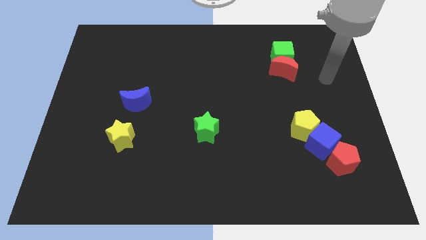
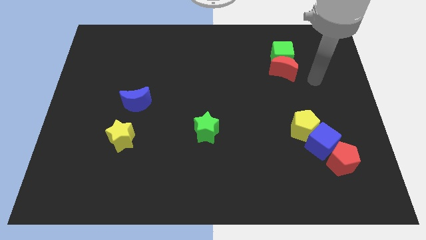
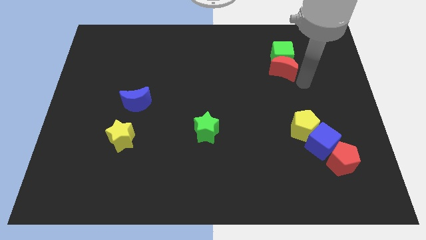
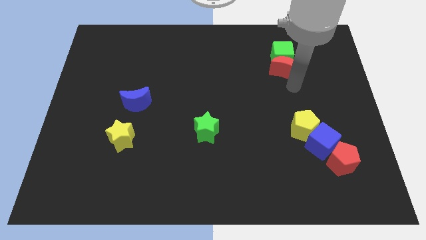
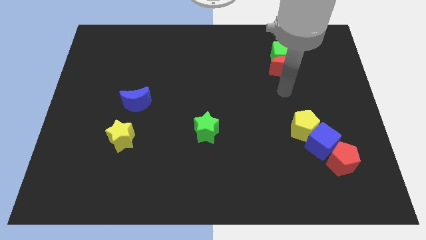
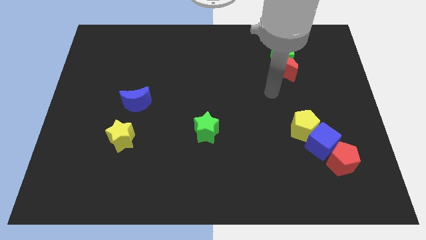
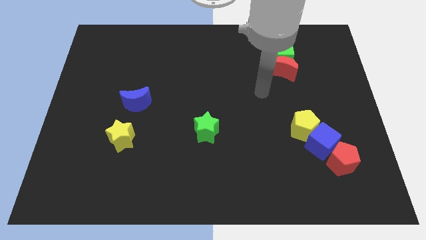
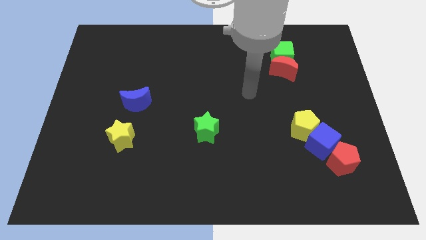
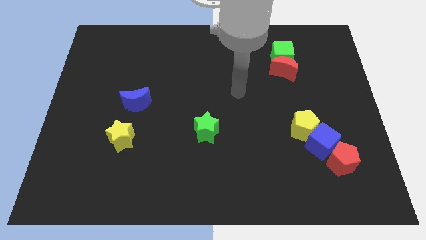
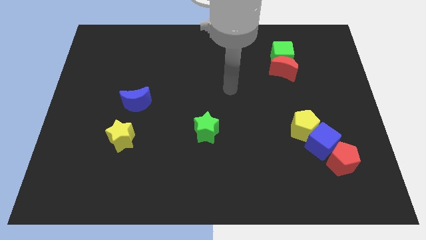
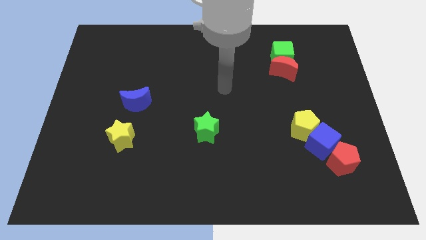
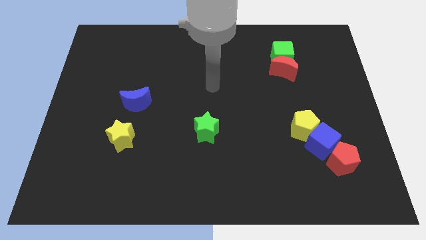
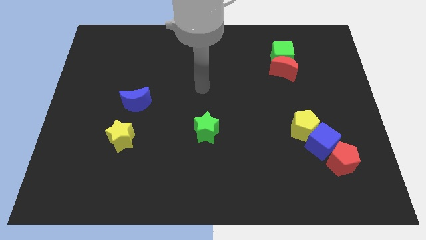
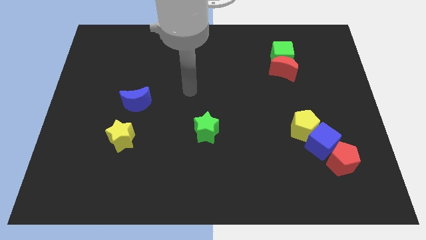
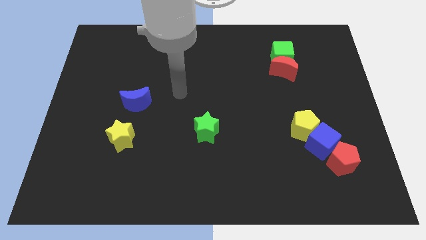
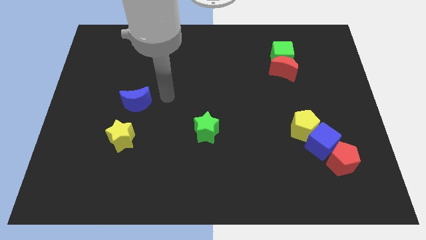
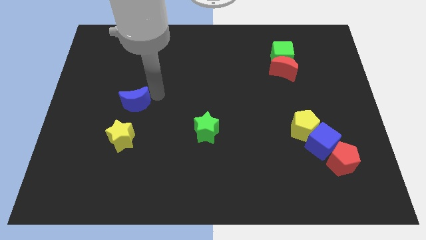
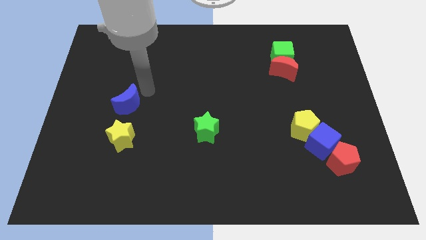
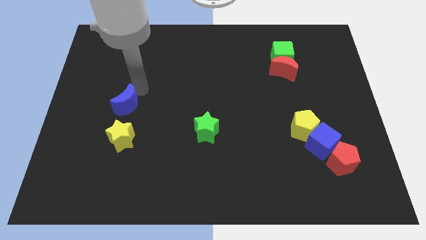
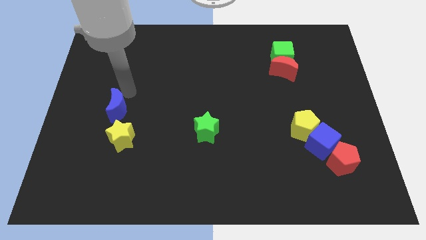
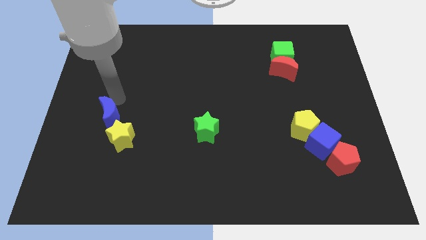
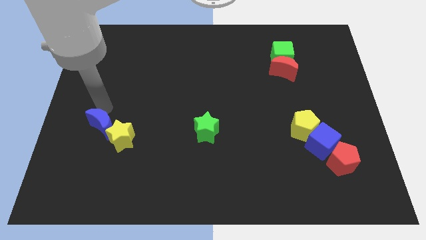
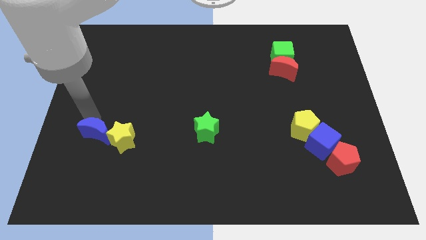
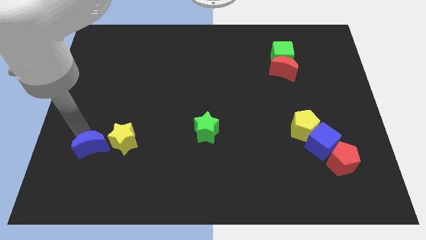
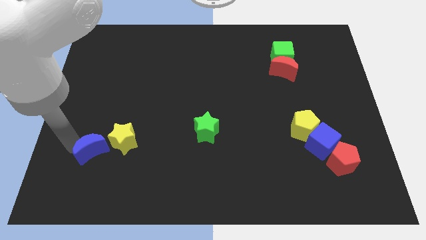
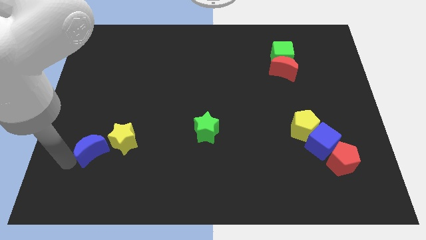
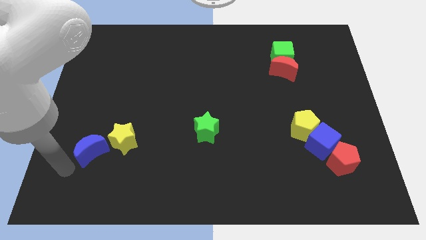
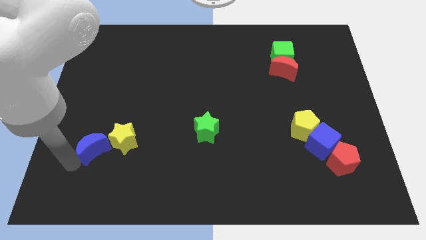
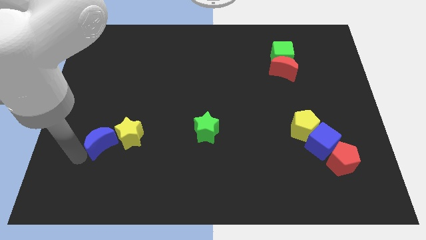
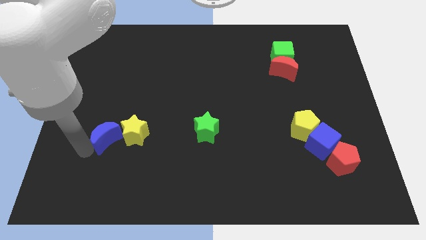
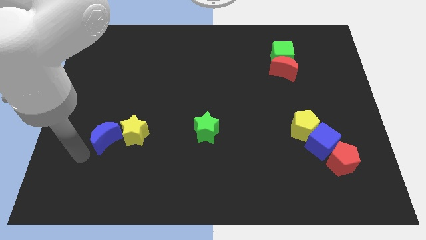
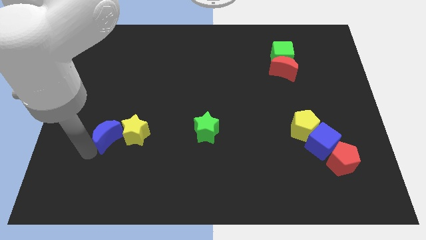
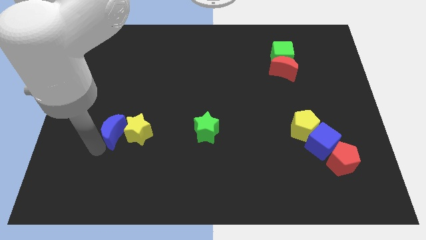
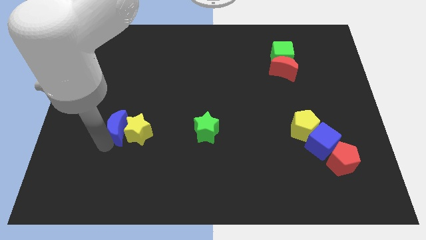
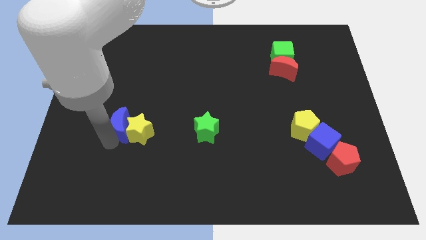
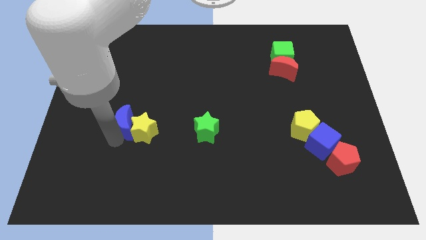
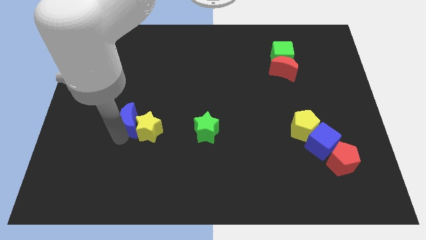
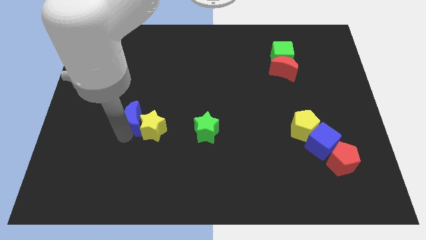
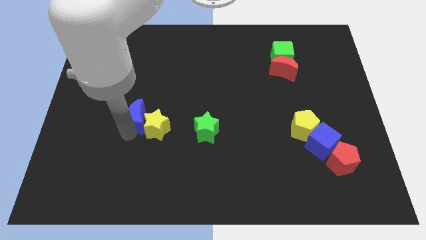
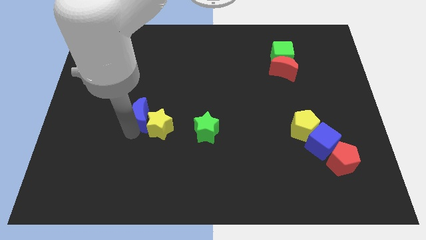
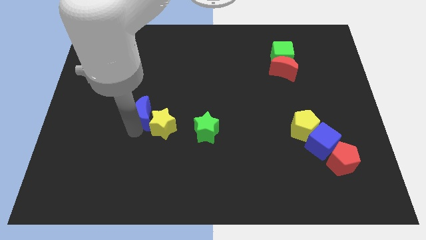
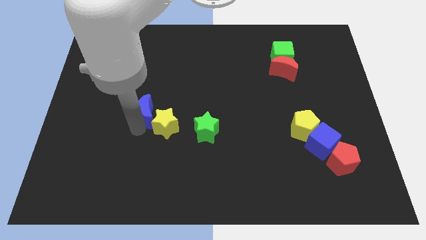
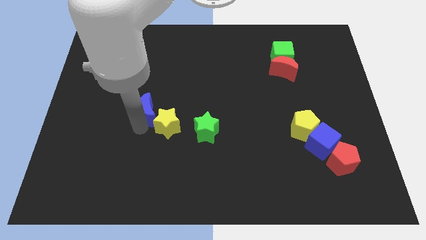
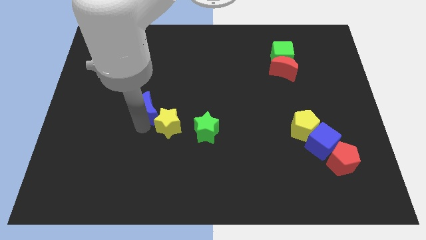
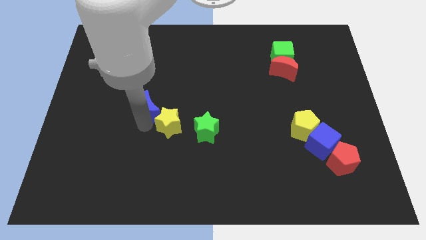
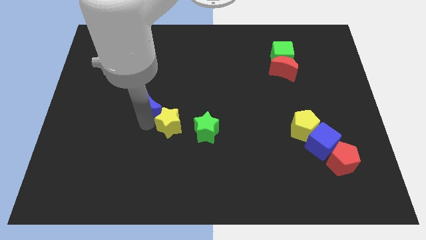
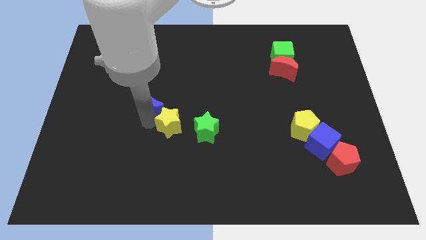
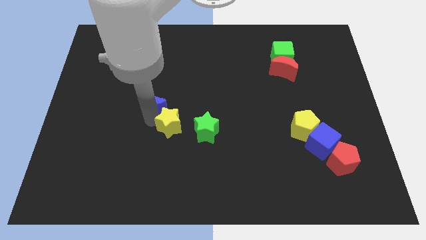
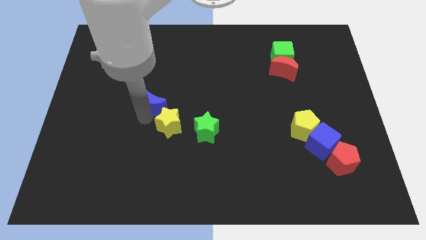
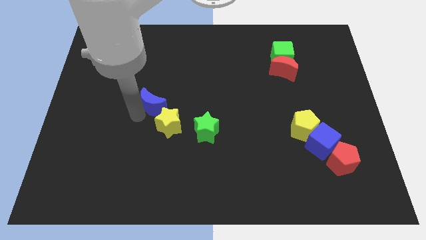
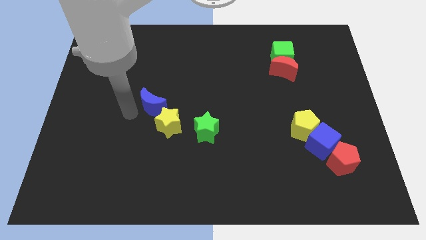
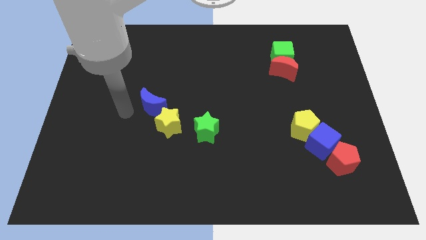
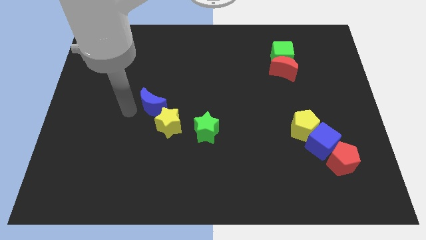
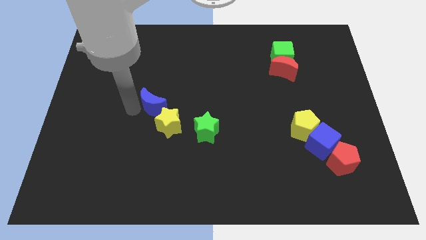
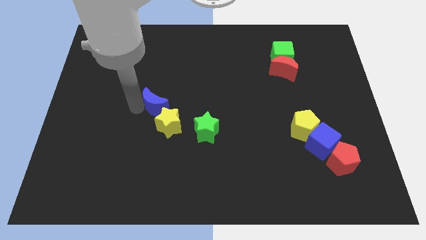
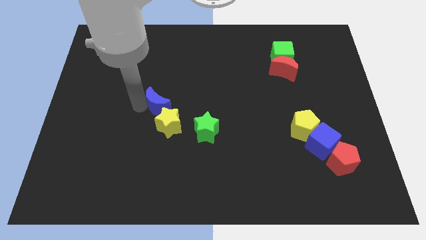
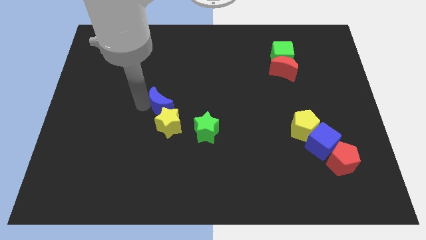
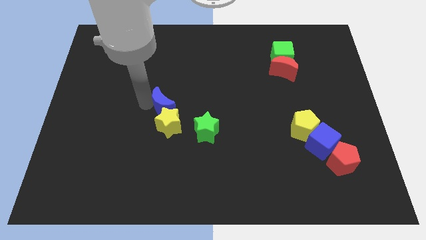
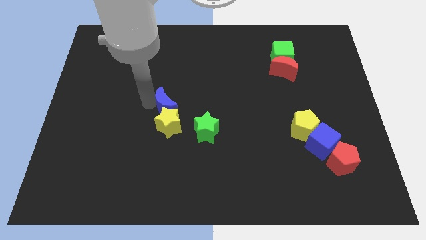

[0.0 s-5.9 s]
slightly push the blue moon right

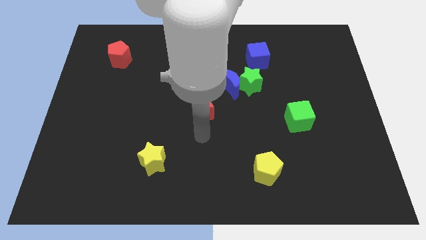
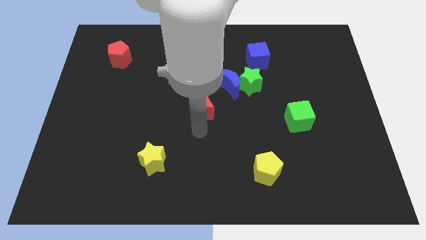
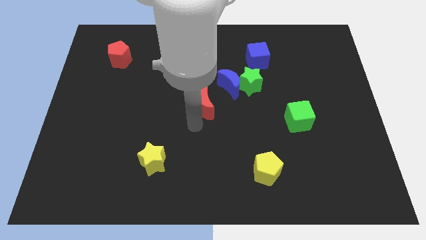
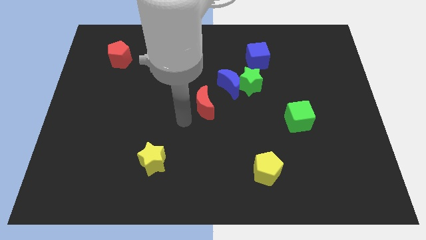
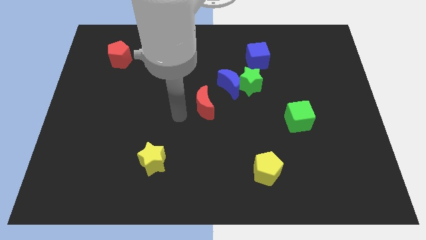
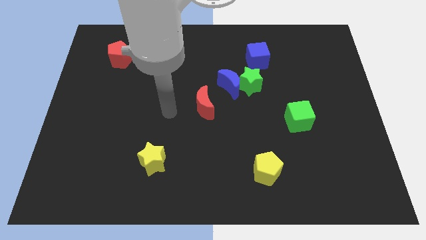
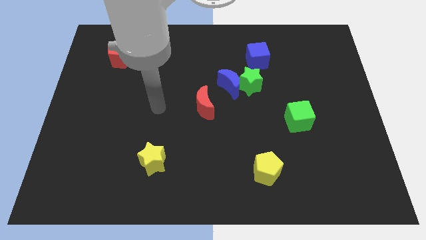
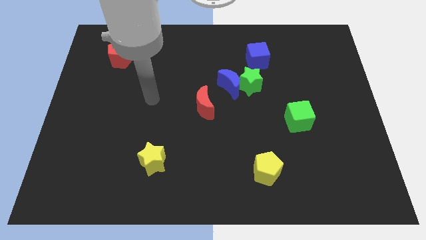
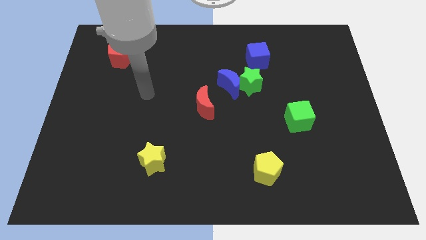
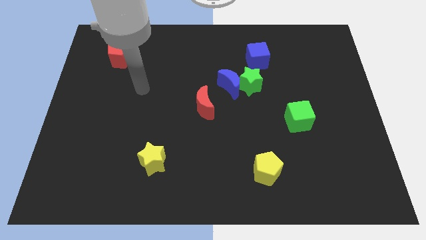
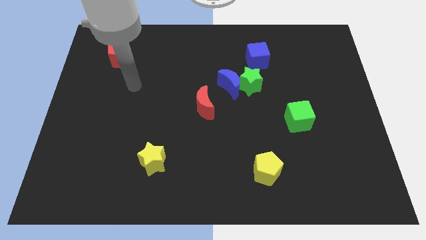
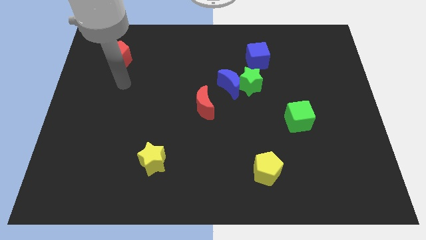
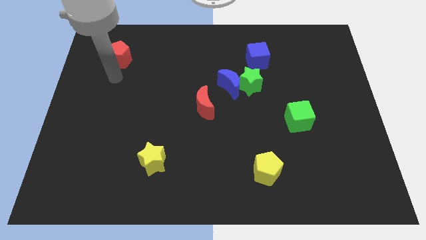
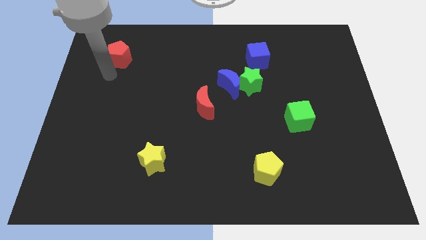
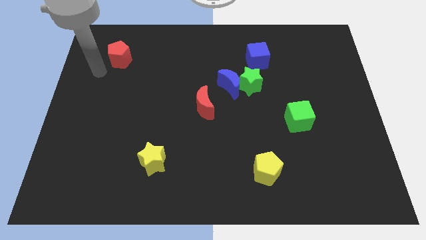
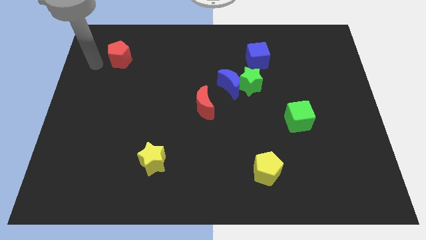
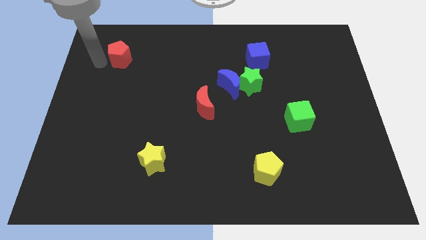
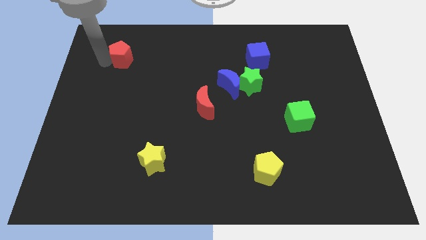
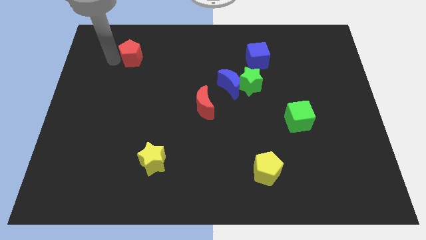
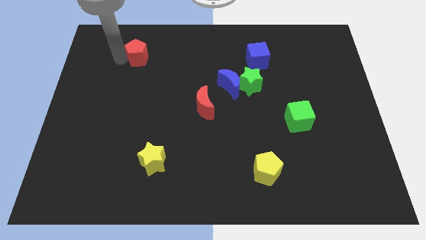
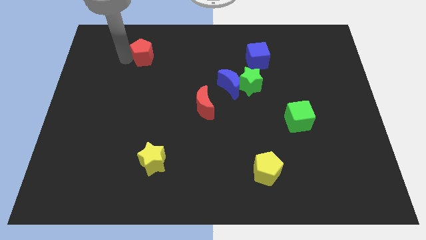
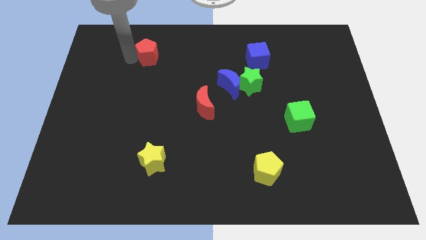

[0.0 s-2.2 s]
slightly push the red pentagon right
